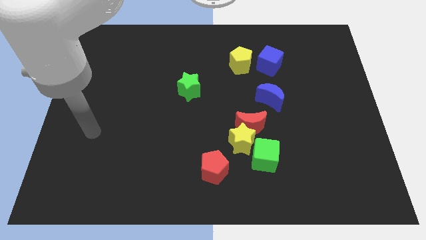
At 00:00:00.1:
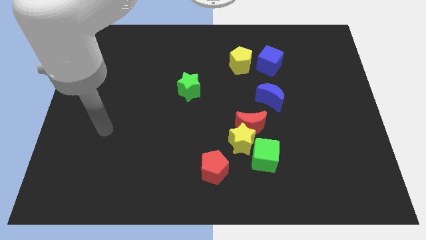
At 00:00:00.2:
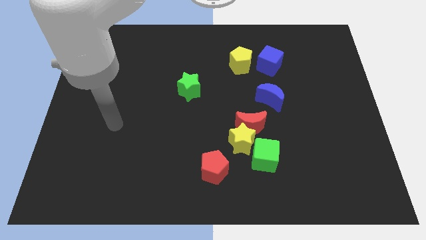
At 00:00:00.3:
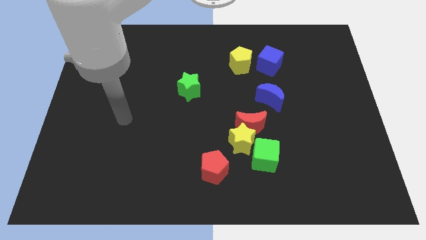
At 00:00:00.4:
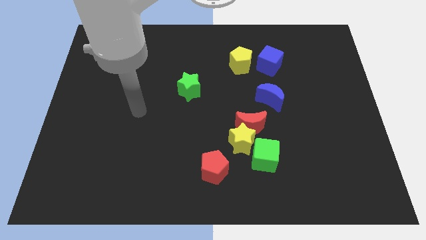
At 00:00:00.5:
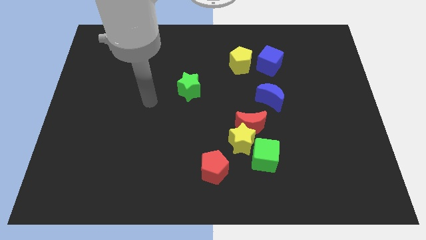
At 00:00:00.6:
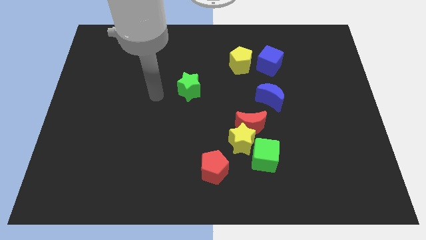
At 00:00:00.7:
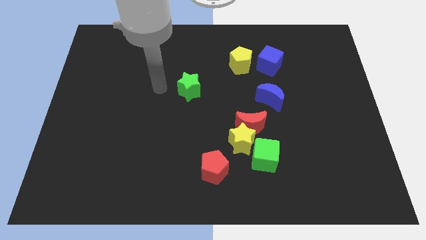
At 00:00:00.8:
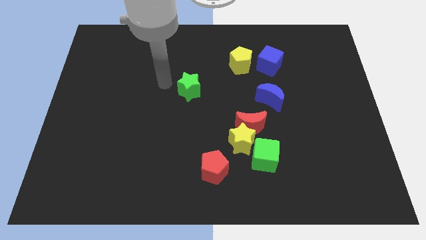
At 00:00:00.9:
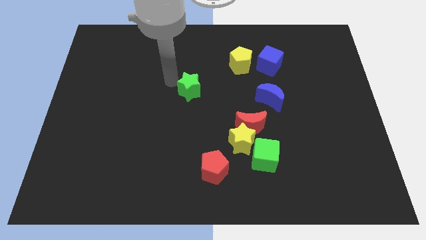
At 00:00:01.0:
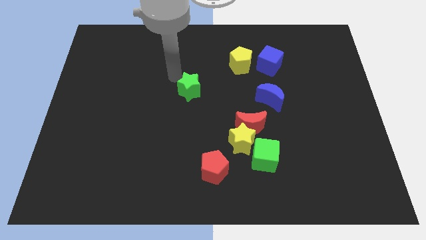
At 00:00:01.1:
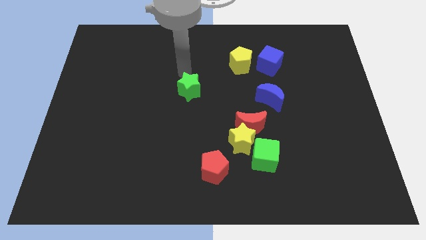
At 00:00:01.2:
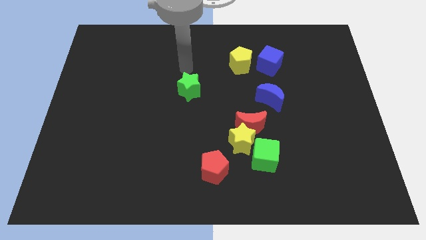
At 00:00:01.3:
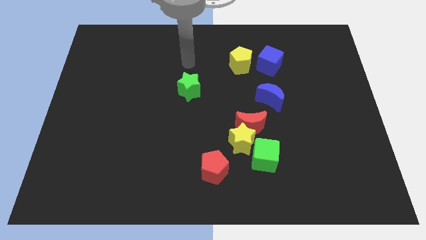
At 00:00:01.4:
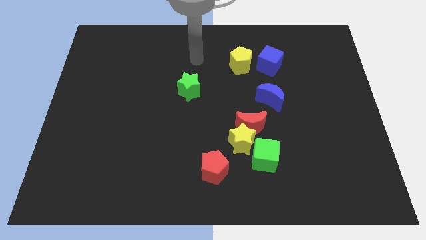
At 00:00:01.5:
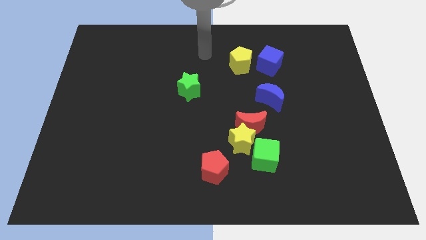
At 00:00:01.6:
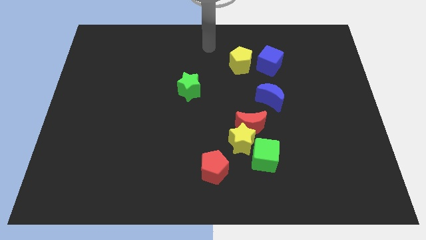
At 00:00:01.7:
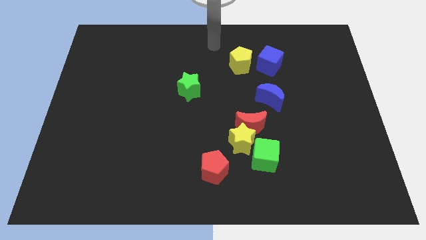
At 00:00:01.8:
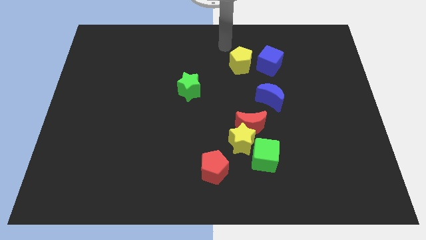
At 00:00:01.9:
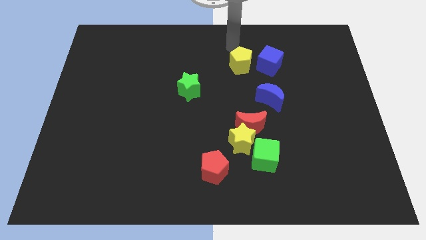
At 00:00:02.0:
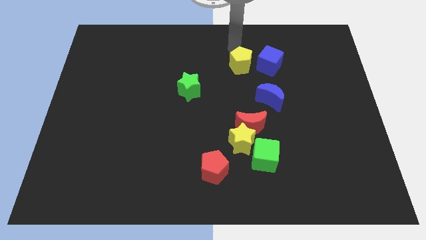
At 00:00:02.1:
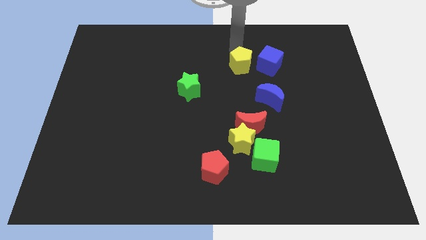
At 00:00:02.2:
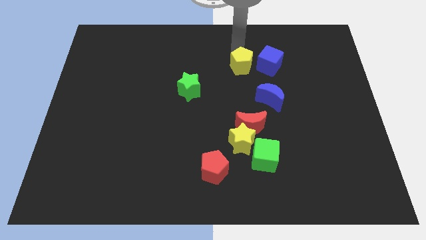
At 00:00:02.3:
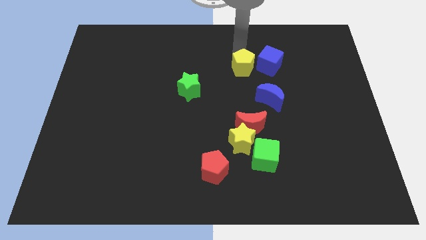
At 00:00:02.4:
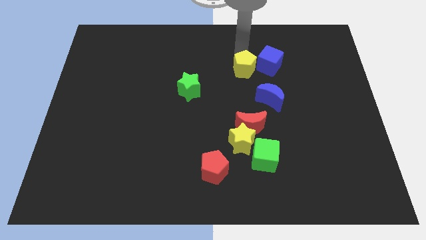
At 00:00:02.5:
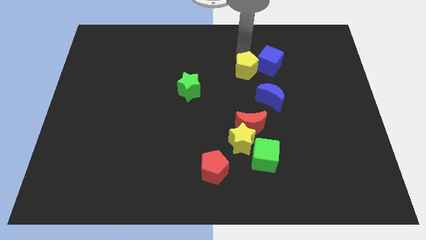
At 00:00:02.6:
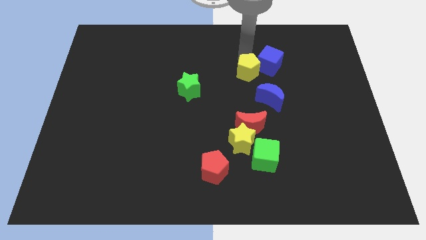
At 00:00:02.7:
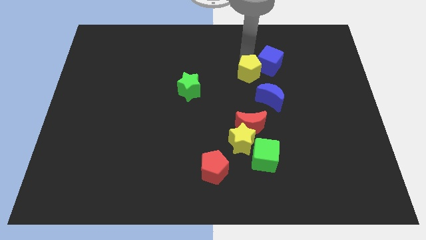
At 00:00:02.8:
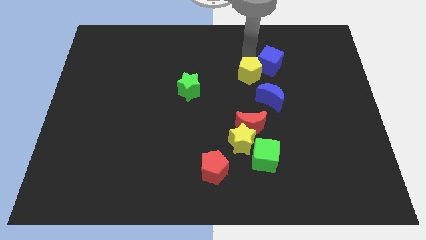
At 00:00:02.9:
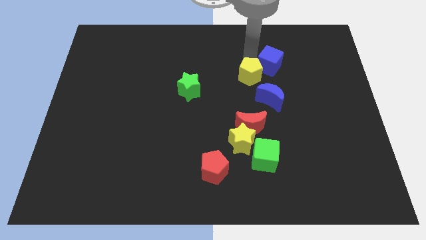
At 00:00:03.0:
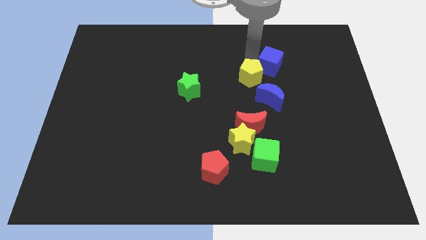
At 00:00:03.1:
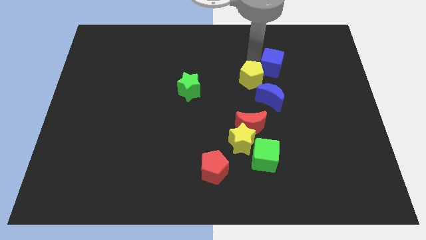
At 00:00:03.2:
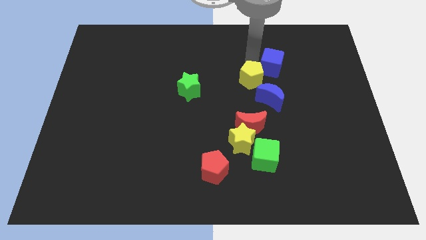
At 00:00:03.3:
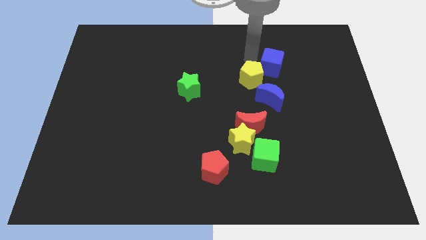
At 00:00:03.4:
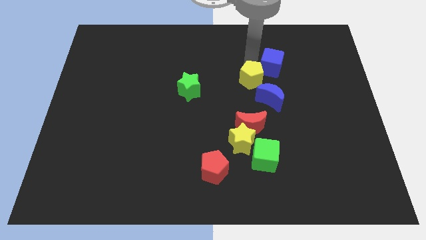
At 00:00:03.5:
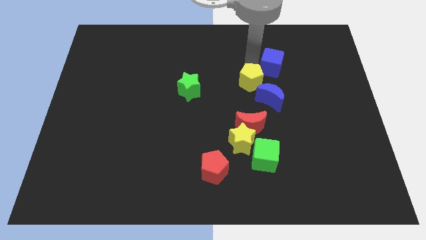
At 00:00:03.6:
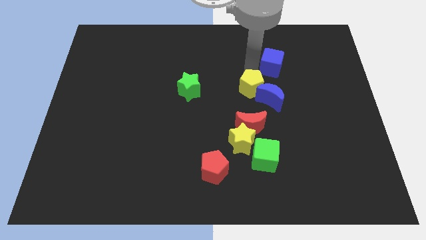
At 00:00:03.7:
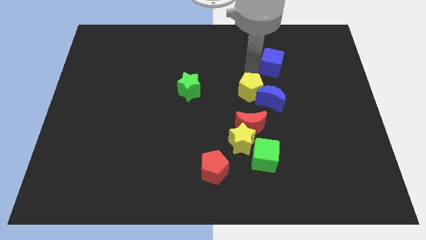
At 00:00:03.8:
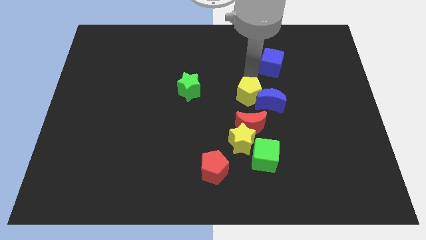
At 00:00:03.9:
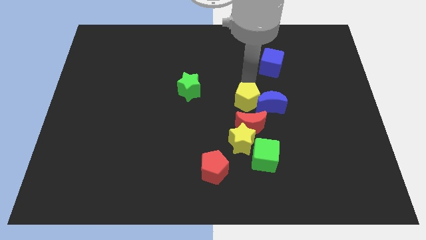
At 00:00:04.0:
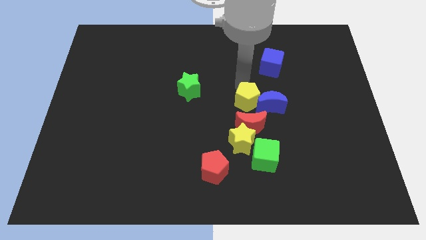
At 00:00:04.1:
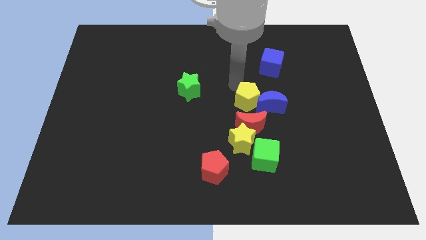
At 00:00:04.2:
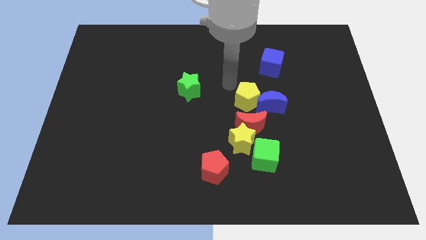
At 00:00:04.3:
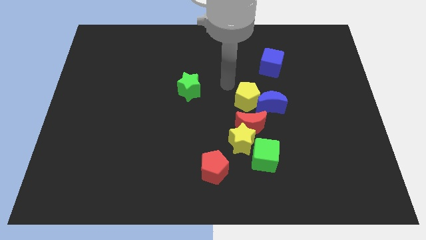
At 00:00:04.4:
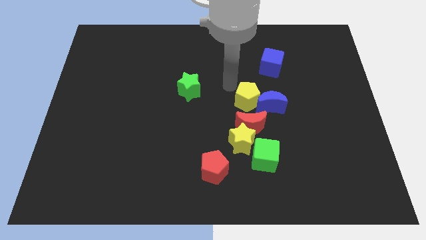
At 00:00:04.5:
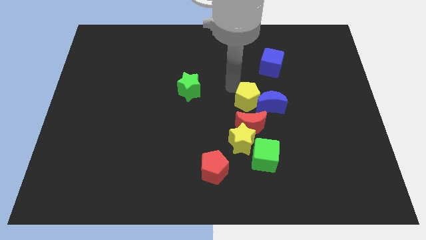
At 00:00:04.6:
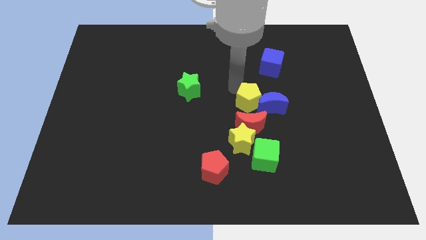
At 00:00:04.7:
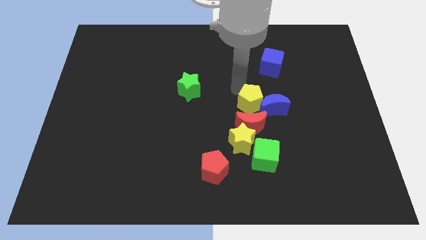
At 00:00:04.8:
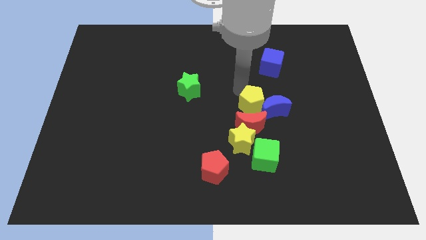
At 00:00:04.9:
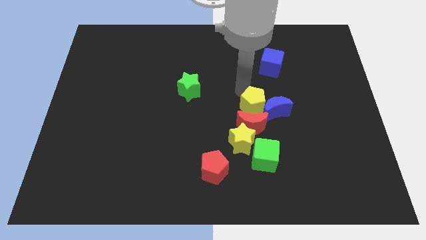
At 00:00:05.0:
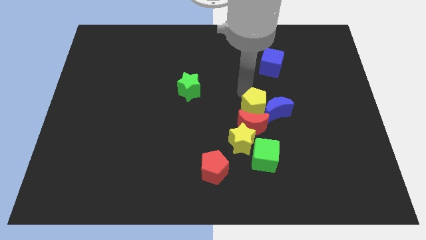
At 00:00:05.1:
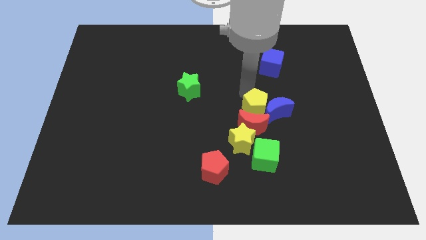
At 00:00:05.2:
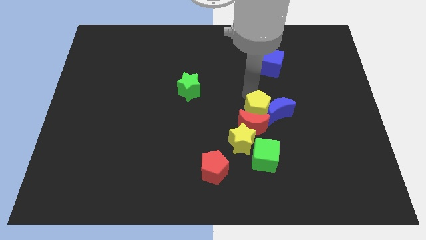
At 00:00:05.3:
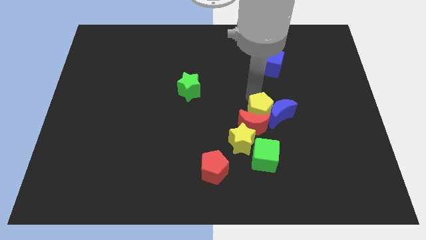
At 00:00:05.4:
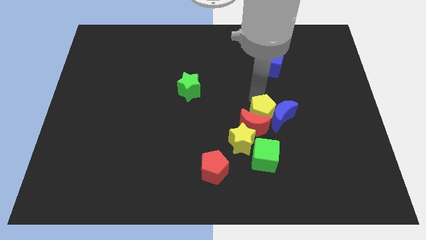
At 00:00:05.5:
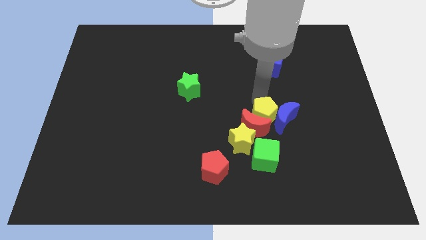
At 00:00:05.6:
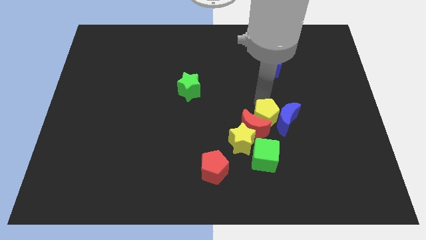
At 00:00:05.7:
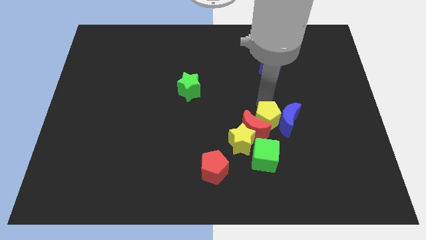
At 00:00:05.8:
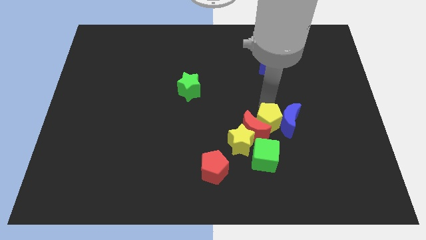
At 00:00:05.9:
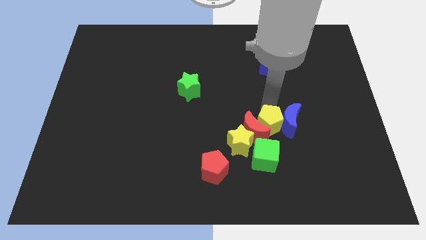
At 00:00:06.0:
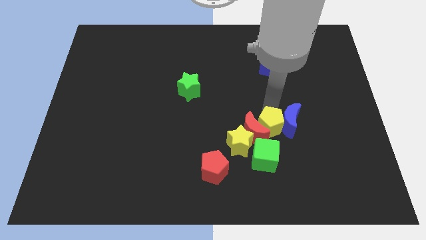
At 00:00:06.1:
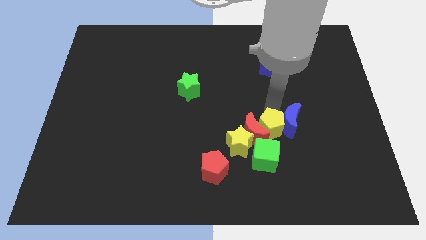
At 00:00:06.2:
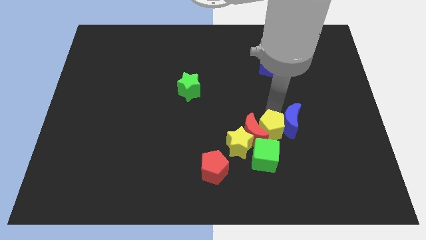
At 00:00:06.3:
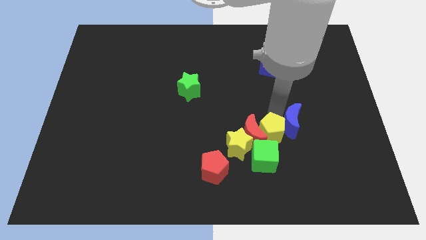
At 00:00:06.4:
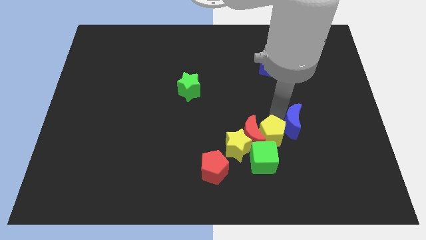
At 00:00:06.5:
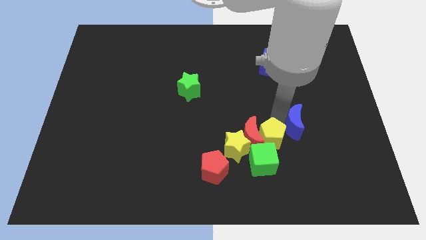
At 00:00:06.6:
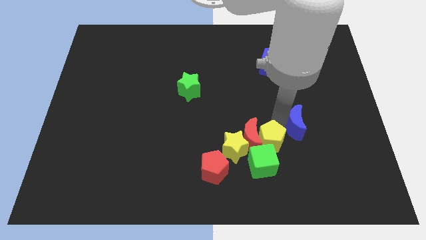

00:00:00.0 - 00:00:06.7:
push the yellow pentagon towards the green cube
